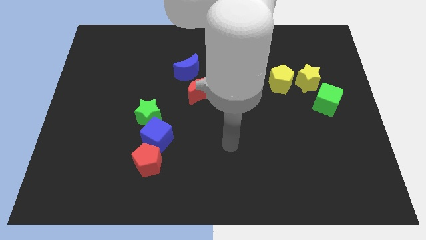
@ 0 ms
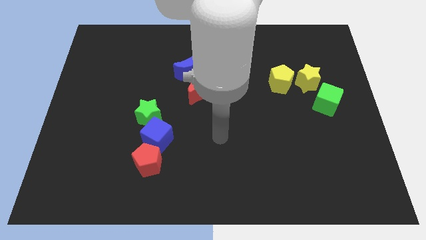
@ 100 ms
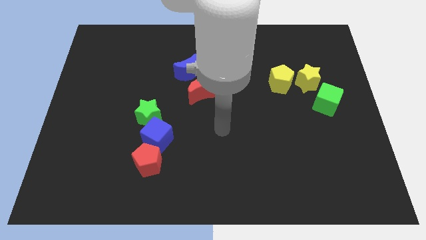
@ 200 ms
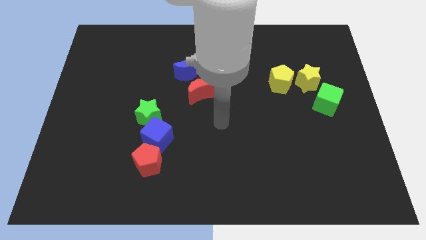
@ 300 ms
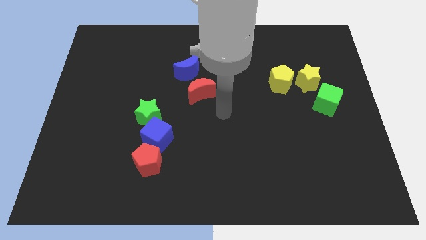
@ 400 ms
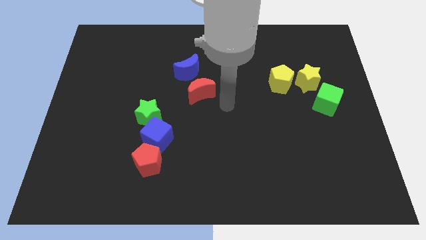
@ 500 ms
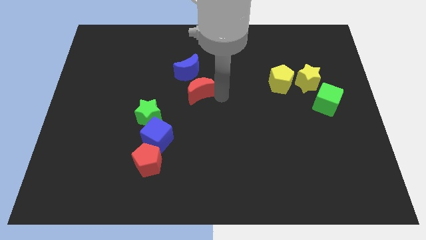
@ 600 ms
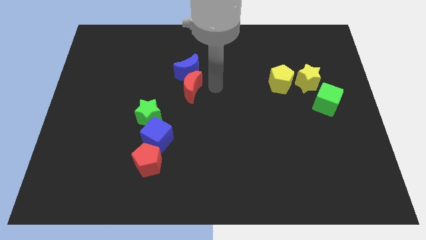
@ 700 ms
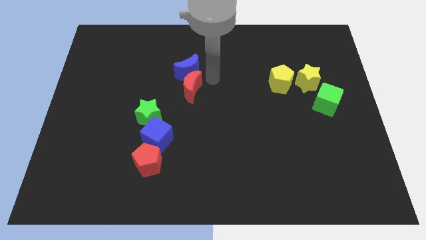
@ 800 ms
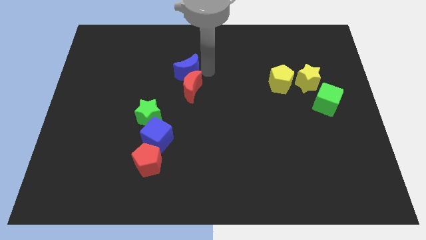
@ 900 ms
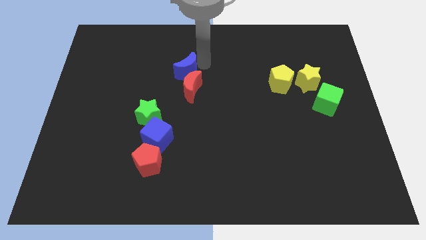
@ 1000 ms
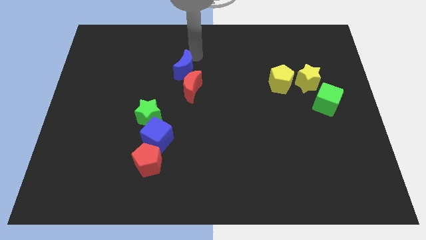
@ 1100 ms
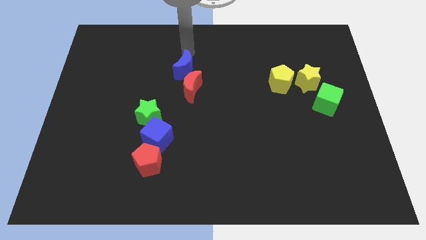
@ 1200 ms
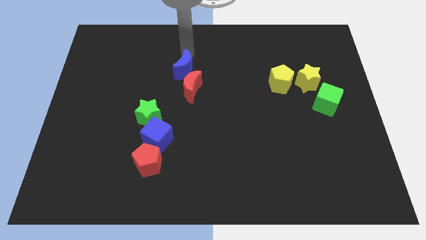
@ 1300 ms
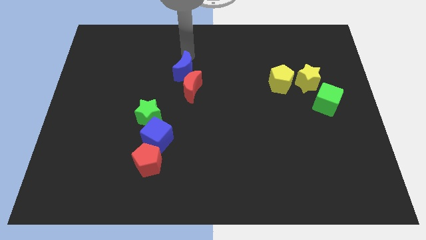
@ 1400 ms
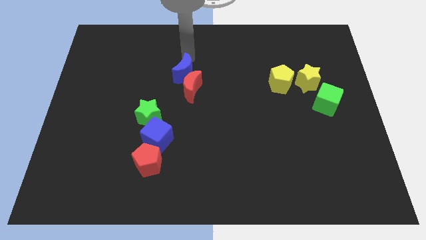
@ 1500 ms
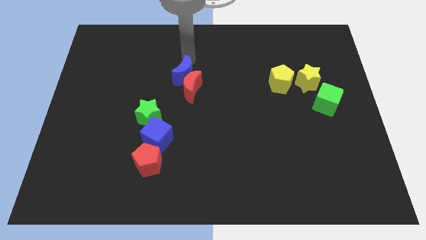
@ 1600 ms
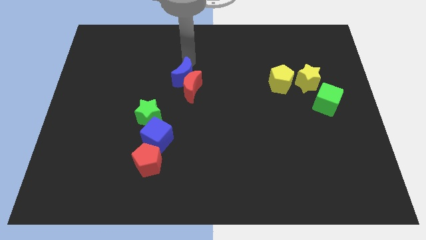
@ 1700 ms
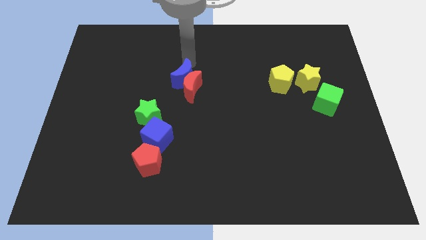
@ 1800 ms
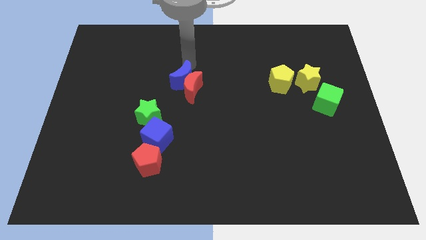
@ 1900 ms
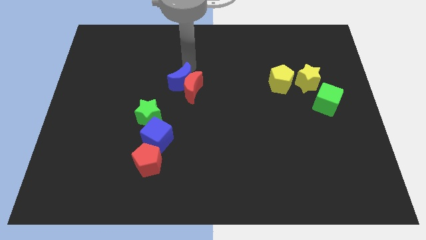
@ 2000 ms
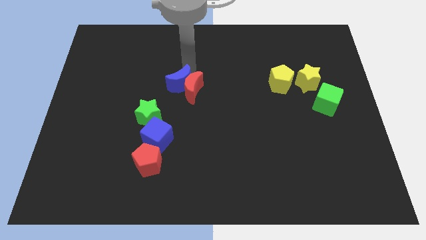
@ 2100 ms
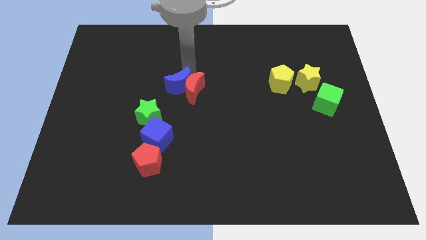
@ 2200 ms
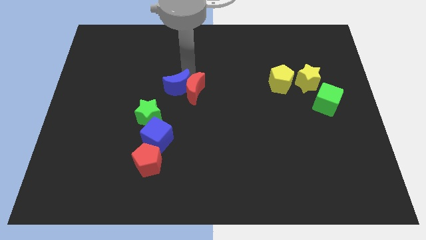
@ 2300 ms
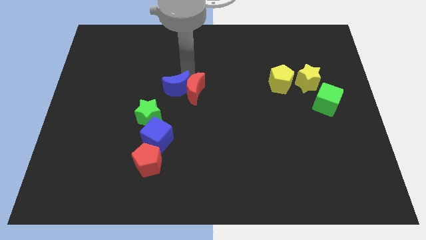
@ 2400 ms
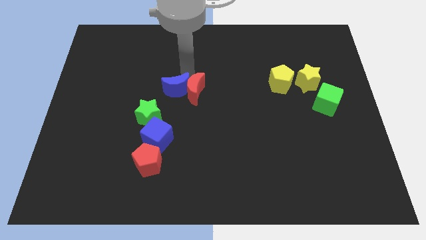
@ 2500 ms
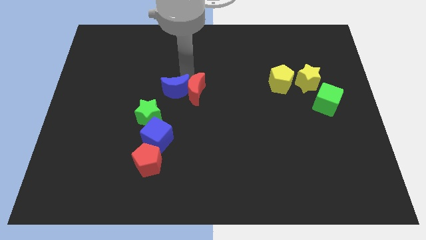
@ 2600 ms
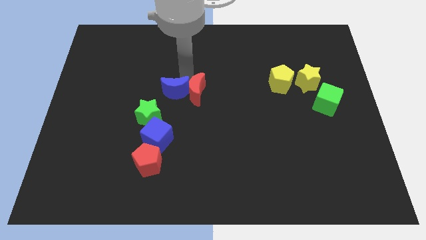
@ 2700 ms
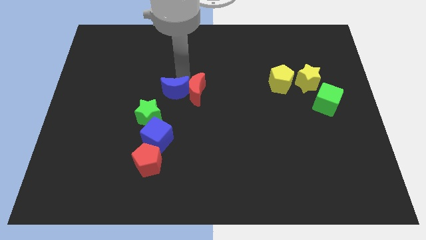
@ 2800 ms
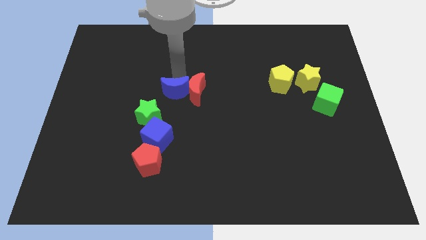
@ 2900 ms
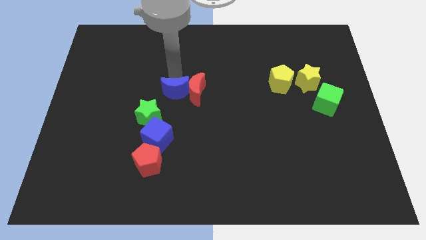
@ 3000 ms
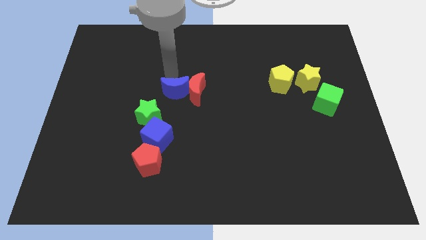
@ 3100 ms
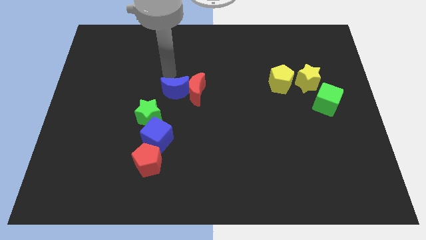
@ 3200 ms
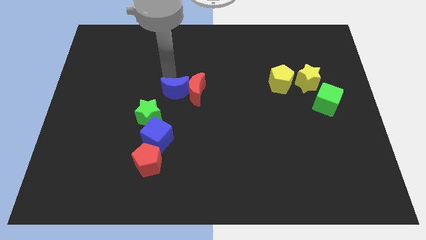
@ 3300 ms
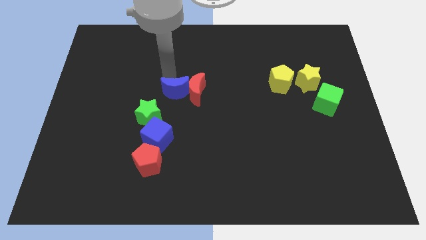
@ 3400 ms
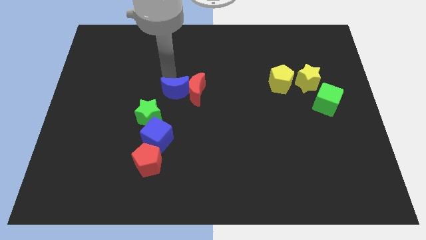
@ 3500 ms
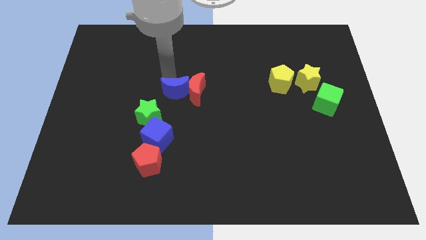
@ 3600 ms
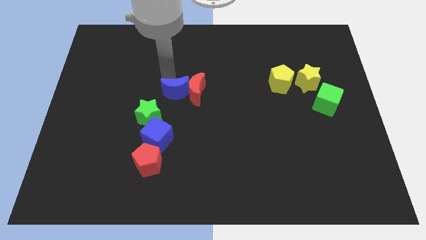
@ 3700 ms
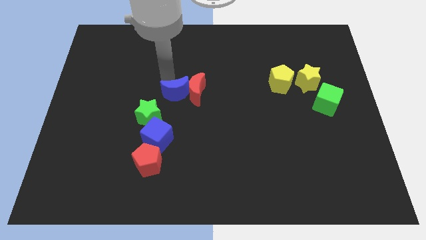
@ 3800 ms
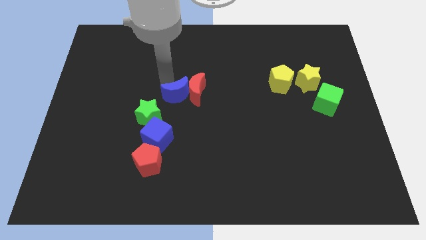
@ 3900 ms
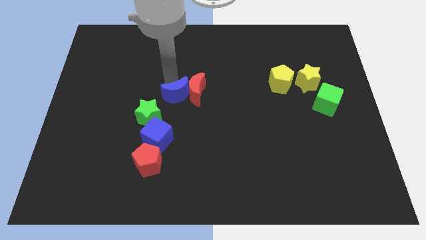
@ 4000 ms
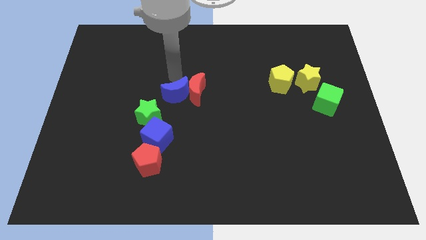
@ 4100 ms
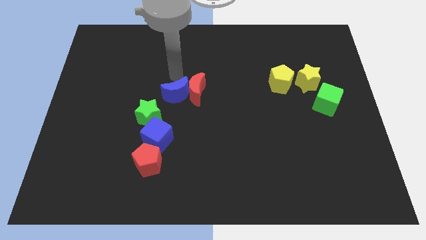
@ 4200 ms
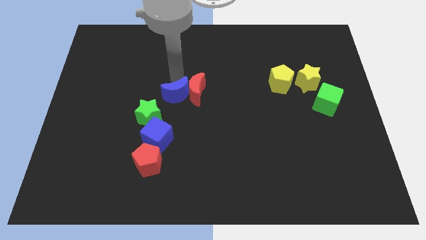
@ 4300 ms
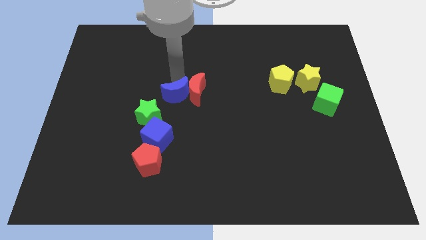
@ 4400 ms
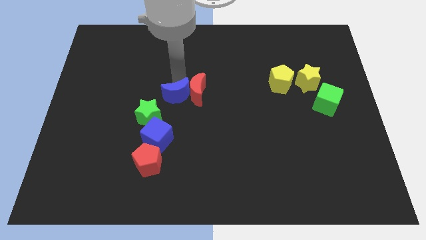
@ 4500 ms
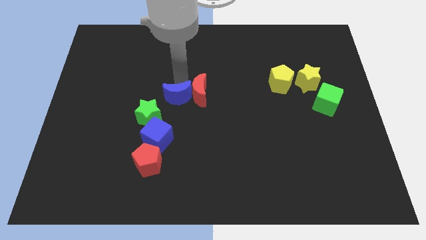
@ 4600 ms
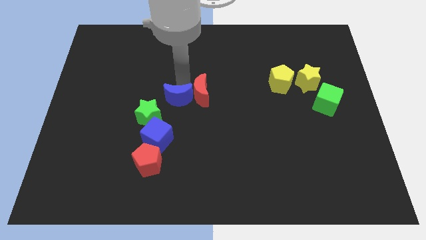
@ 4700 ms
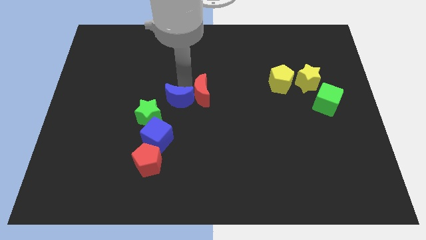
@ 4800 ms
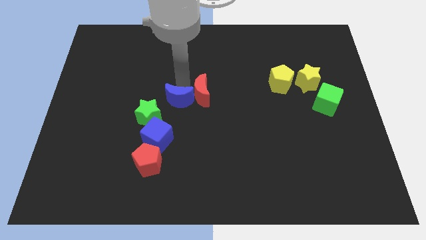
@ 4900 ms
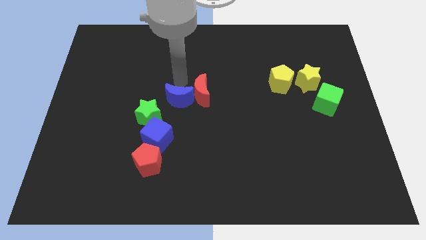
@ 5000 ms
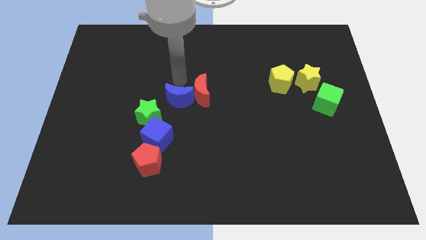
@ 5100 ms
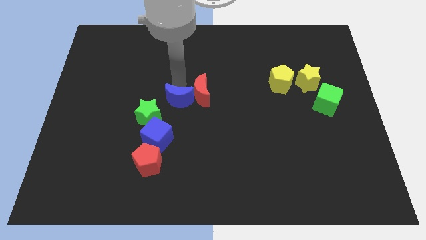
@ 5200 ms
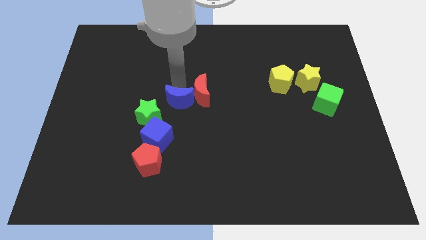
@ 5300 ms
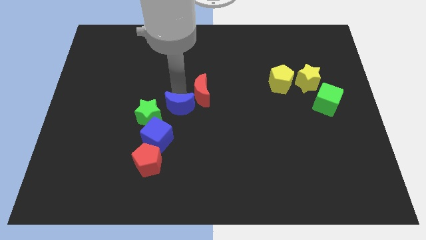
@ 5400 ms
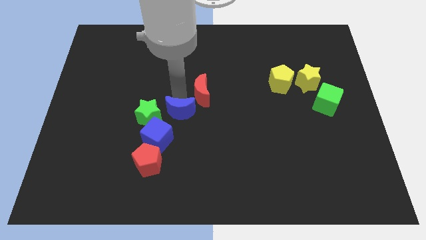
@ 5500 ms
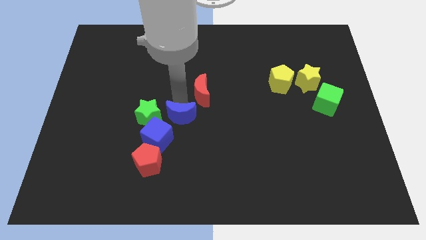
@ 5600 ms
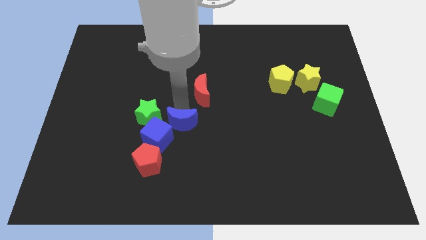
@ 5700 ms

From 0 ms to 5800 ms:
slide the blue moon to the top right side of the red pentagon

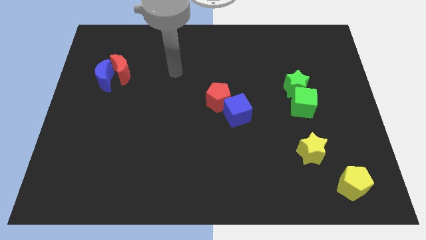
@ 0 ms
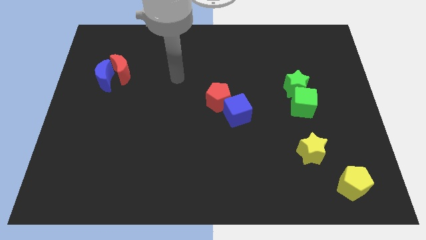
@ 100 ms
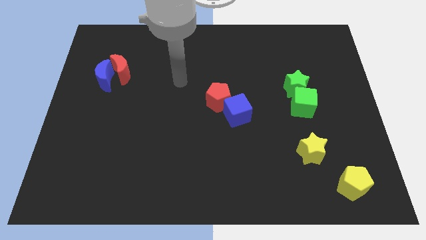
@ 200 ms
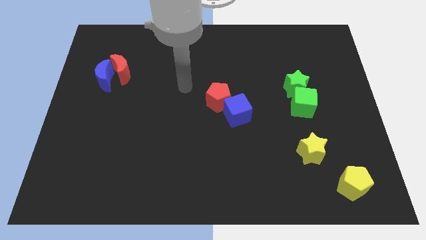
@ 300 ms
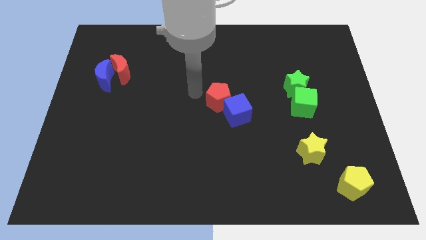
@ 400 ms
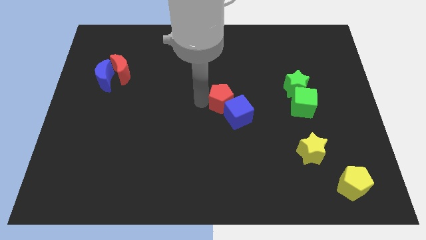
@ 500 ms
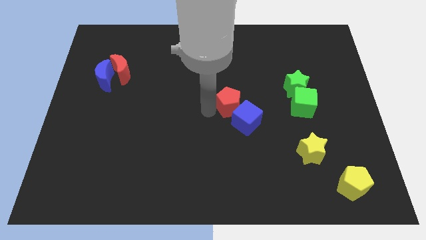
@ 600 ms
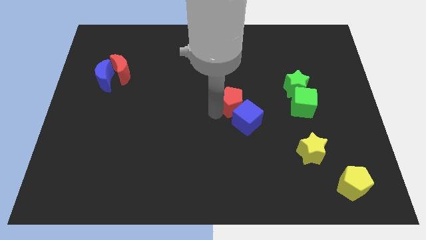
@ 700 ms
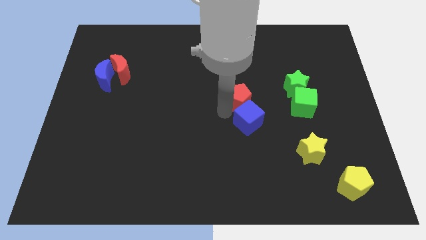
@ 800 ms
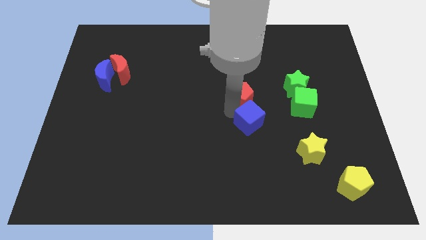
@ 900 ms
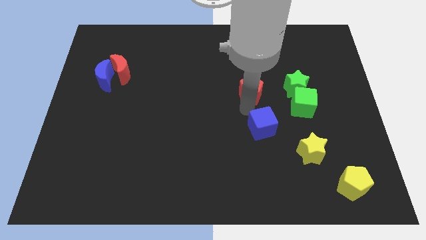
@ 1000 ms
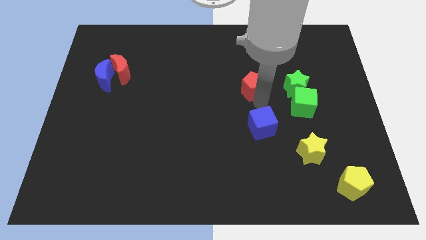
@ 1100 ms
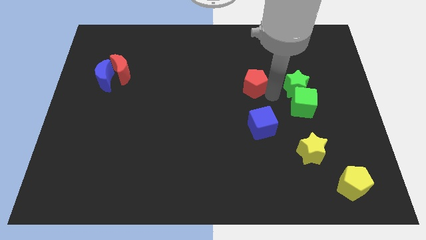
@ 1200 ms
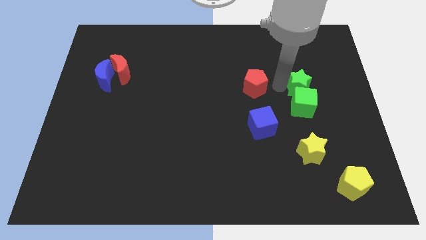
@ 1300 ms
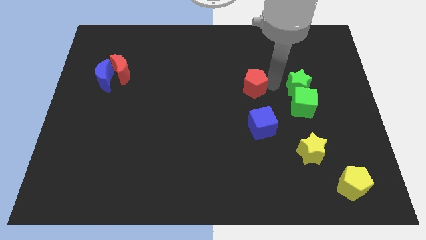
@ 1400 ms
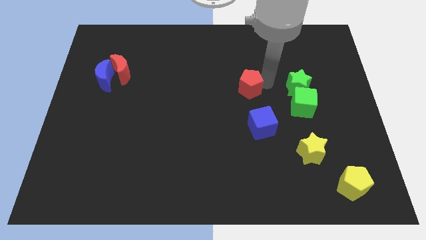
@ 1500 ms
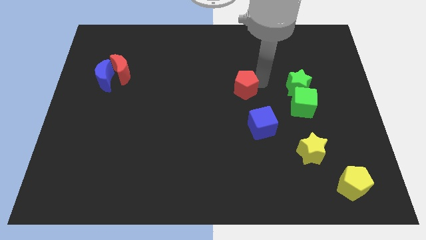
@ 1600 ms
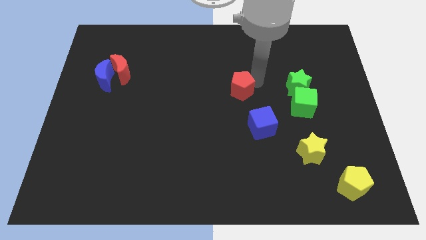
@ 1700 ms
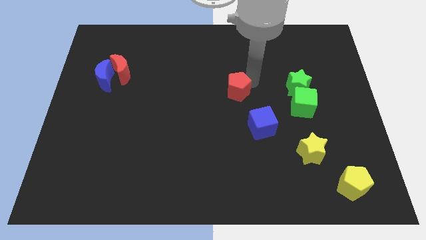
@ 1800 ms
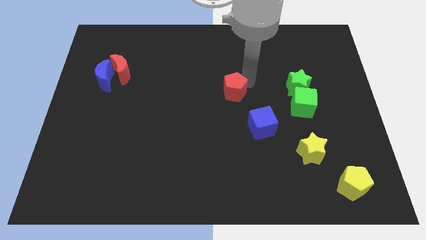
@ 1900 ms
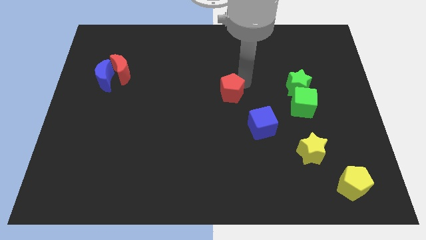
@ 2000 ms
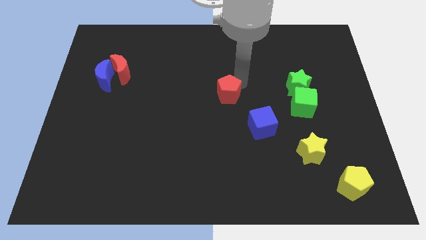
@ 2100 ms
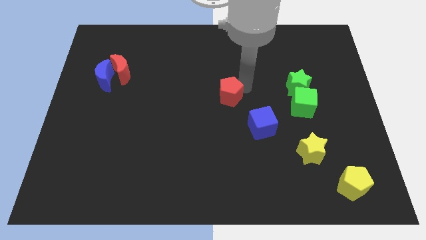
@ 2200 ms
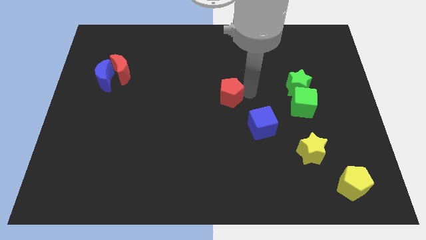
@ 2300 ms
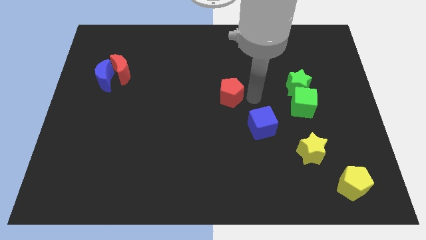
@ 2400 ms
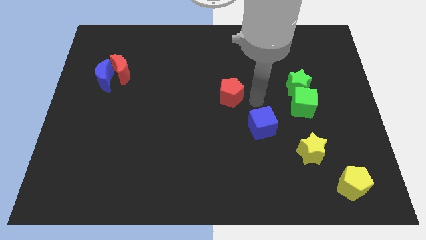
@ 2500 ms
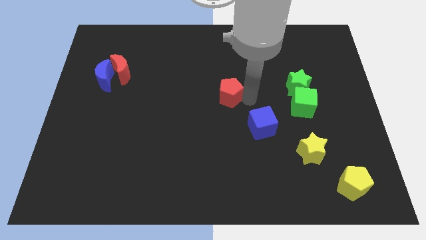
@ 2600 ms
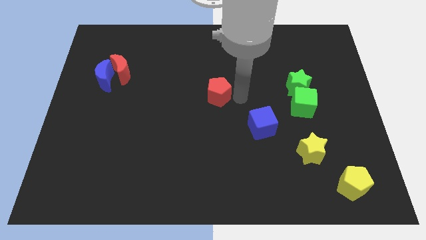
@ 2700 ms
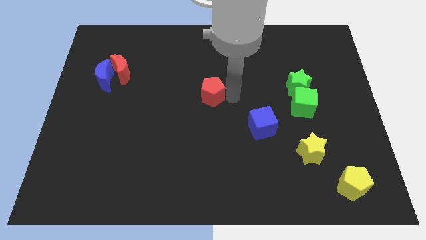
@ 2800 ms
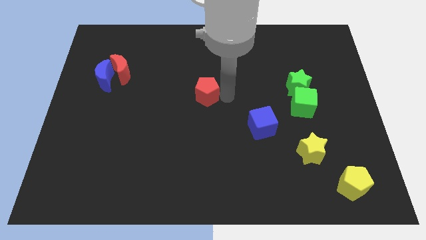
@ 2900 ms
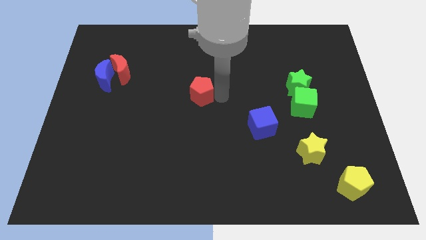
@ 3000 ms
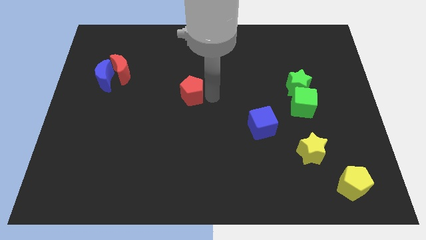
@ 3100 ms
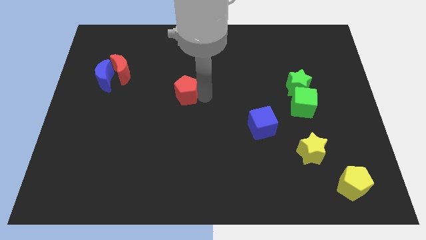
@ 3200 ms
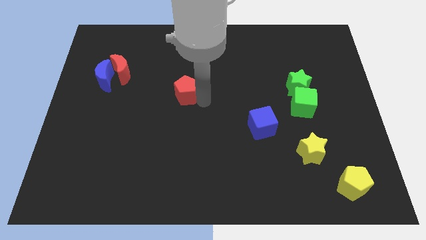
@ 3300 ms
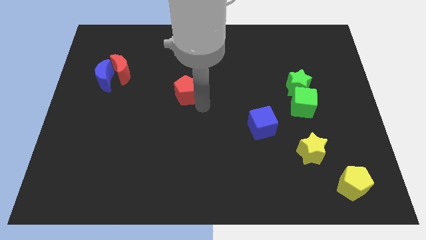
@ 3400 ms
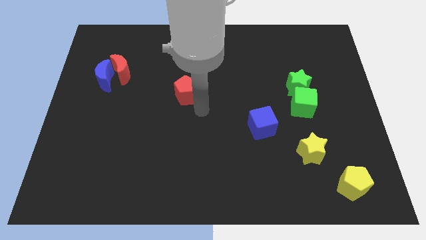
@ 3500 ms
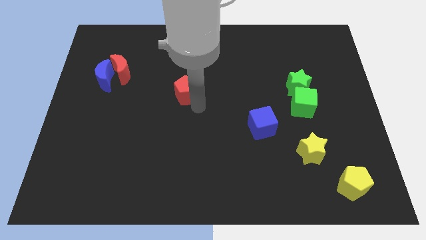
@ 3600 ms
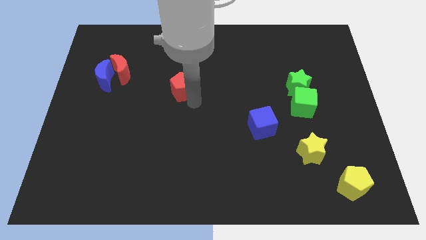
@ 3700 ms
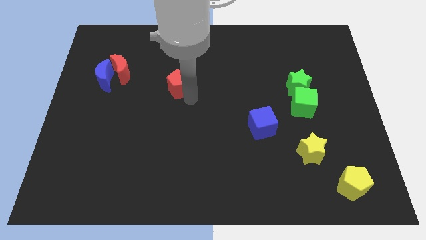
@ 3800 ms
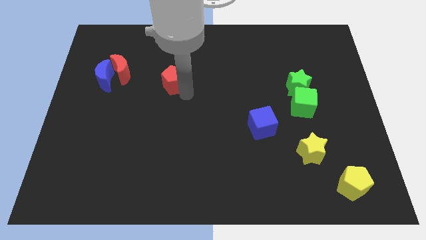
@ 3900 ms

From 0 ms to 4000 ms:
move the red pentagon just right of the red moon
